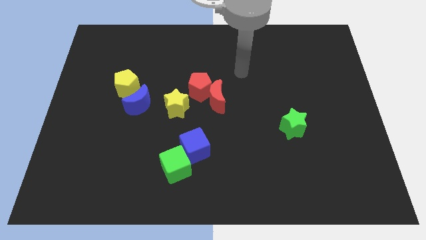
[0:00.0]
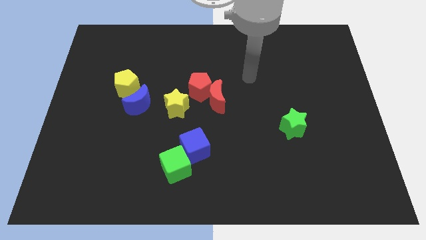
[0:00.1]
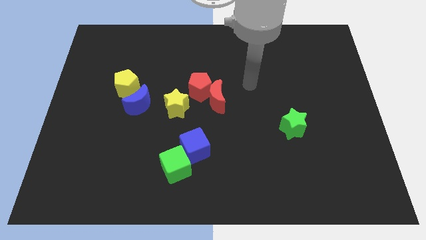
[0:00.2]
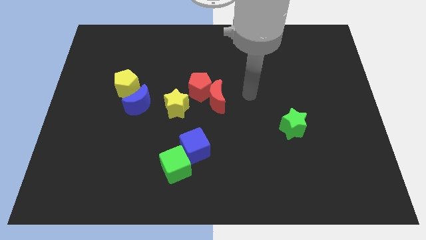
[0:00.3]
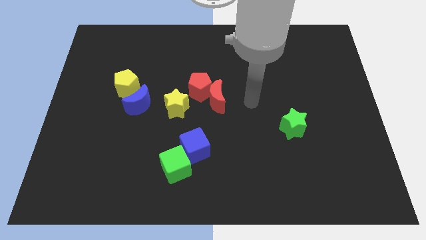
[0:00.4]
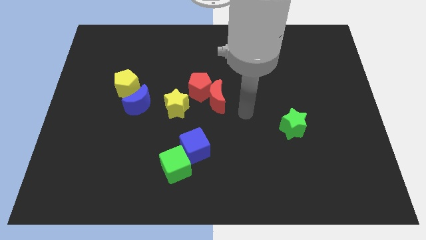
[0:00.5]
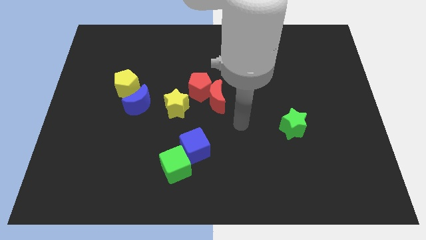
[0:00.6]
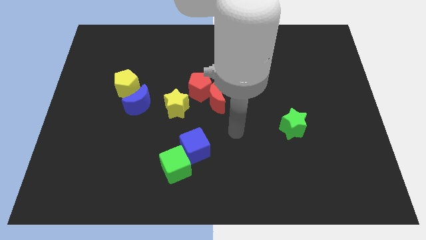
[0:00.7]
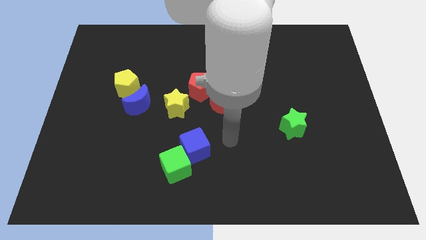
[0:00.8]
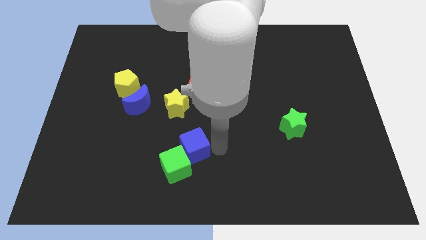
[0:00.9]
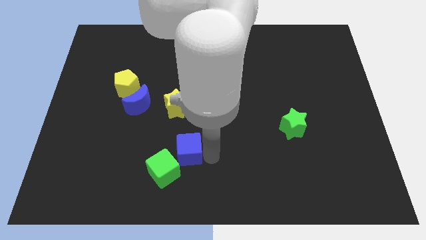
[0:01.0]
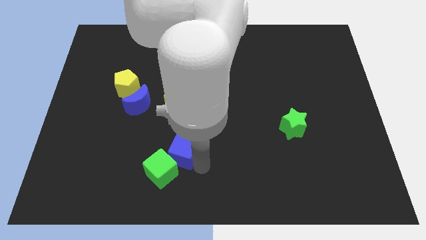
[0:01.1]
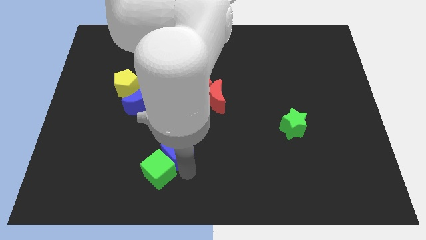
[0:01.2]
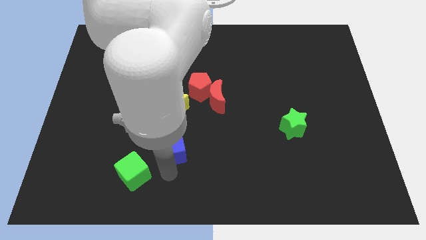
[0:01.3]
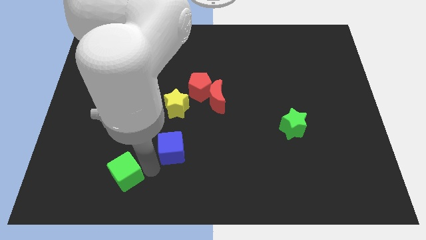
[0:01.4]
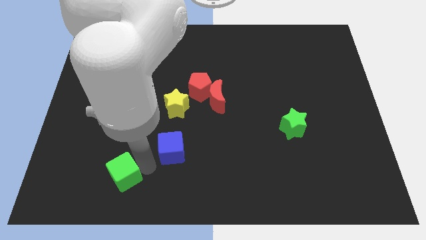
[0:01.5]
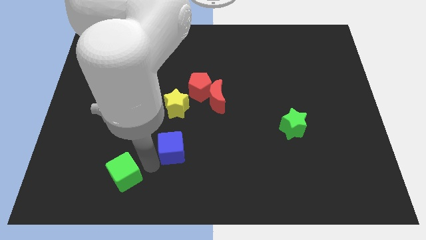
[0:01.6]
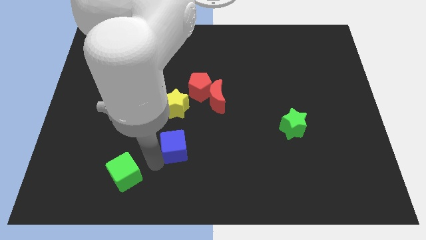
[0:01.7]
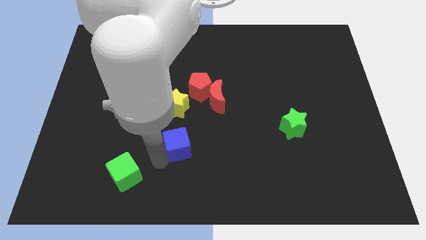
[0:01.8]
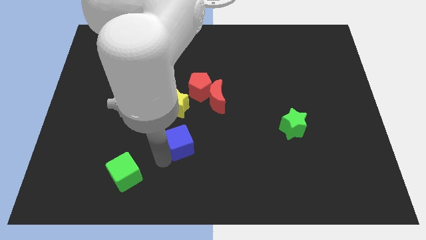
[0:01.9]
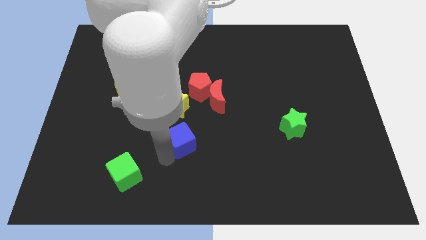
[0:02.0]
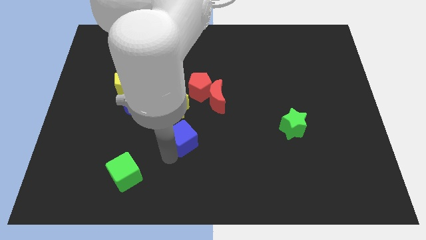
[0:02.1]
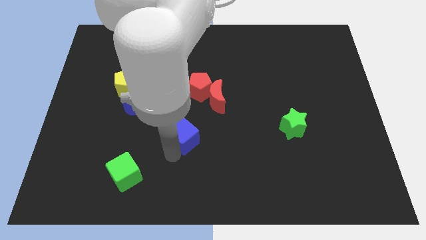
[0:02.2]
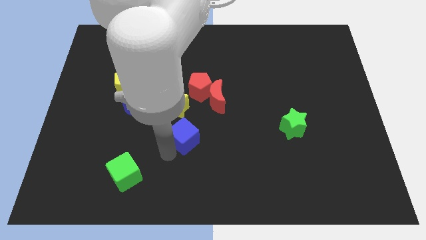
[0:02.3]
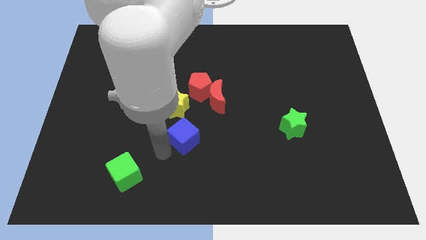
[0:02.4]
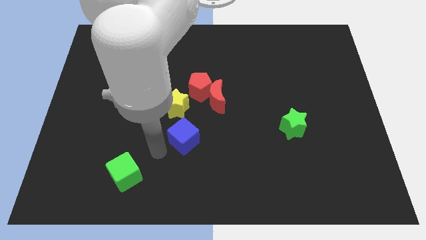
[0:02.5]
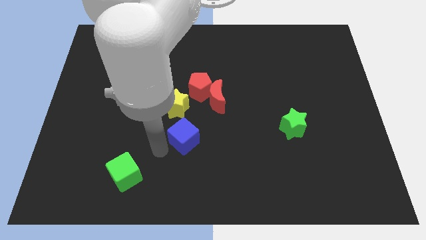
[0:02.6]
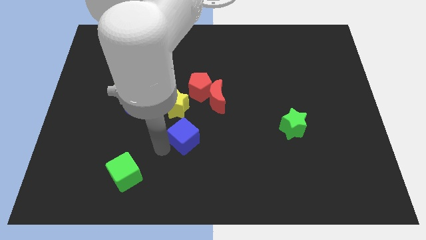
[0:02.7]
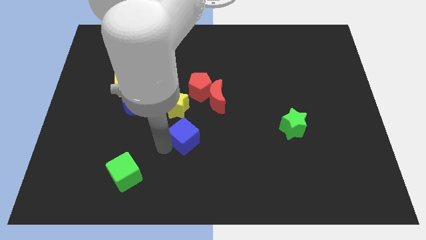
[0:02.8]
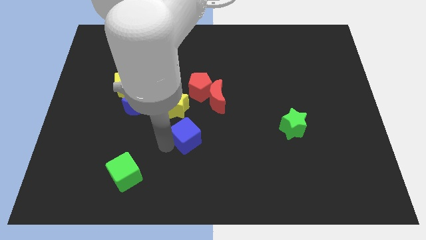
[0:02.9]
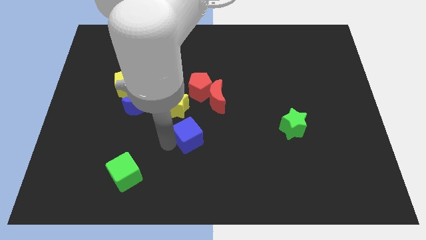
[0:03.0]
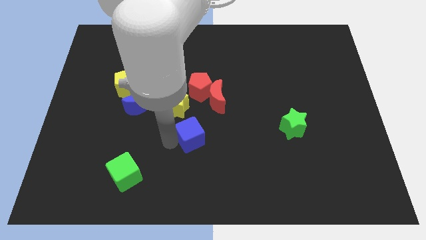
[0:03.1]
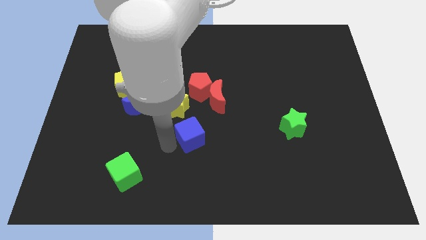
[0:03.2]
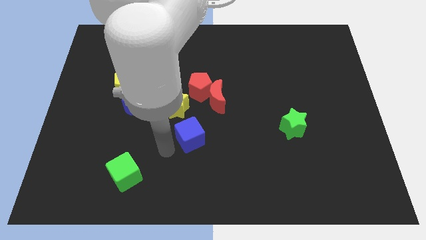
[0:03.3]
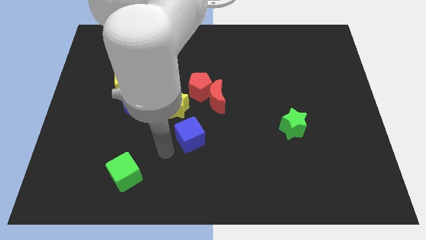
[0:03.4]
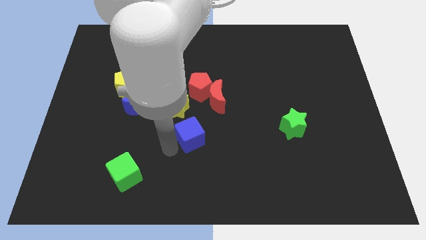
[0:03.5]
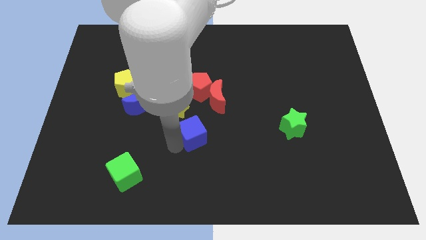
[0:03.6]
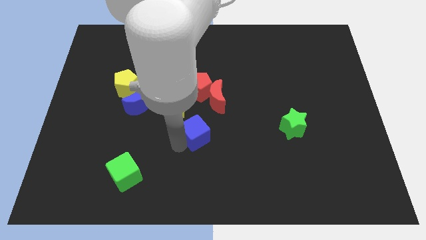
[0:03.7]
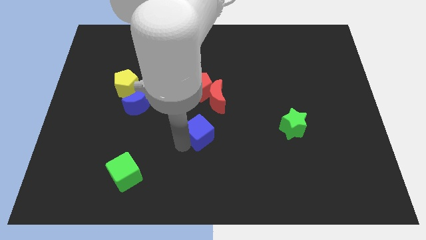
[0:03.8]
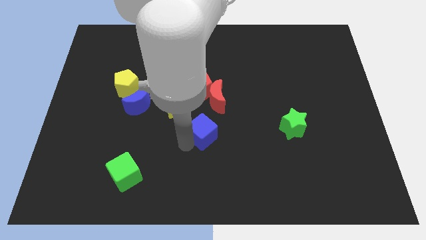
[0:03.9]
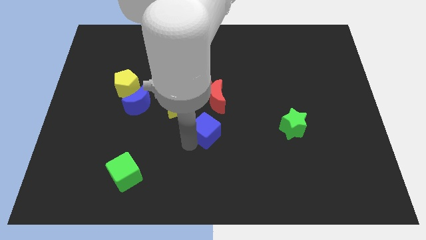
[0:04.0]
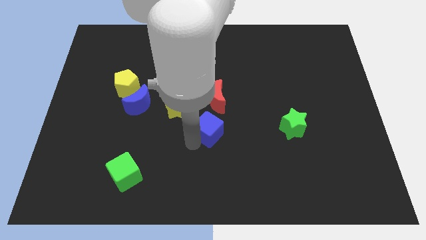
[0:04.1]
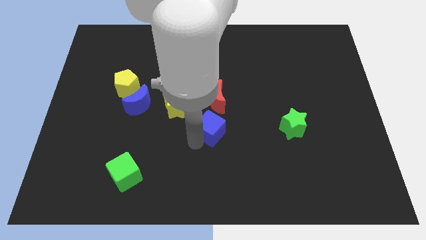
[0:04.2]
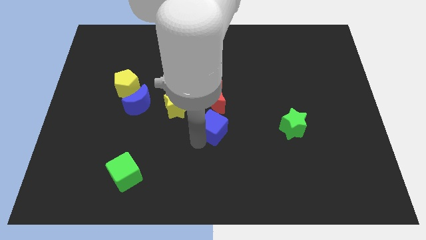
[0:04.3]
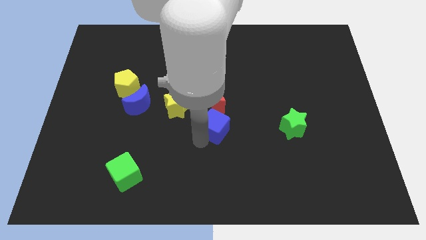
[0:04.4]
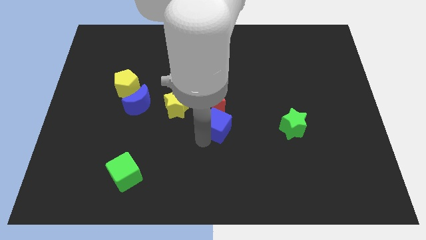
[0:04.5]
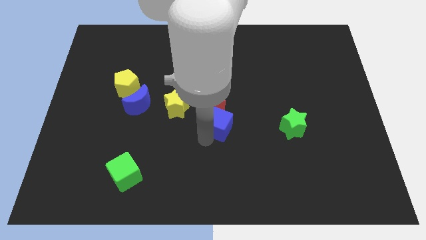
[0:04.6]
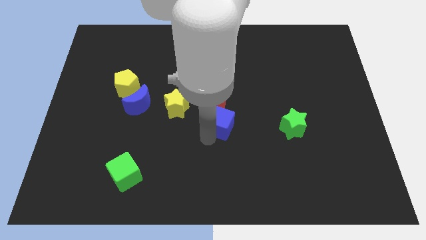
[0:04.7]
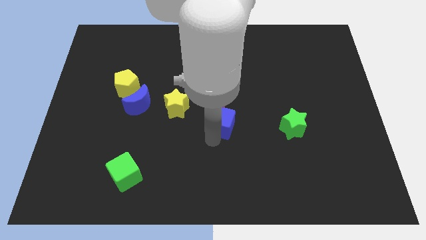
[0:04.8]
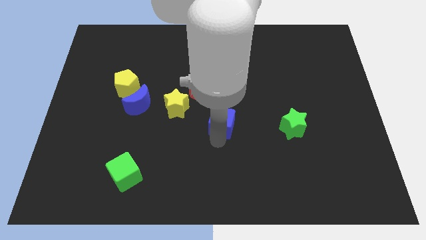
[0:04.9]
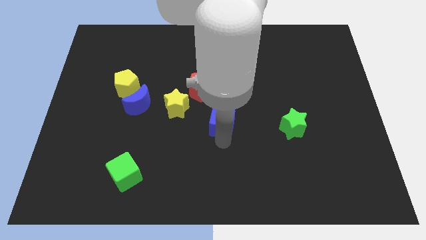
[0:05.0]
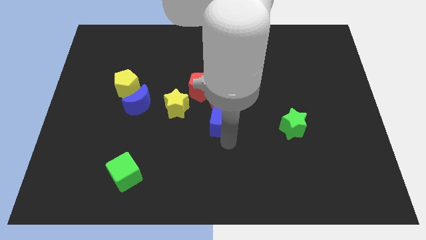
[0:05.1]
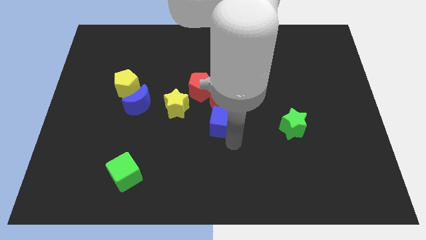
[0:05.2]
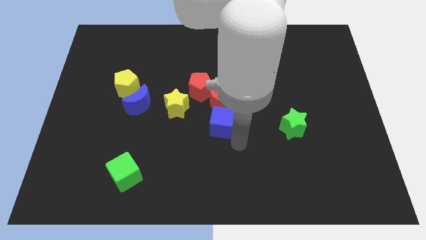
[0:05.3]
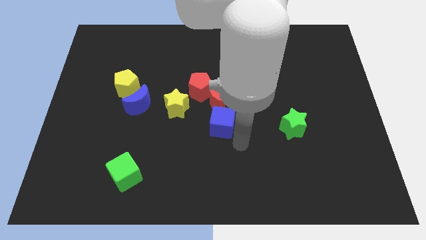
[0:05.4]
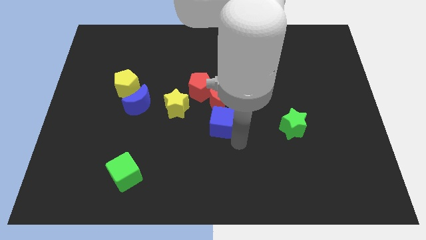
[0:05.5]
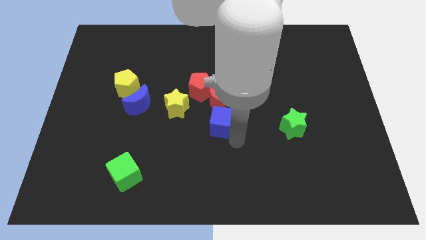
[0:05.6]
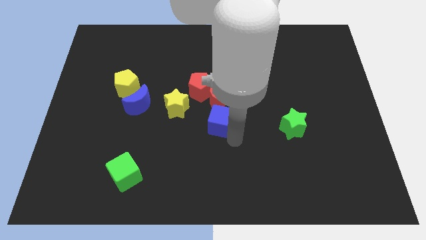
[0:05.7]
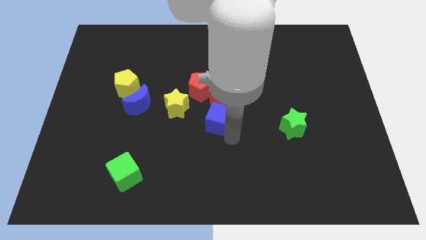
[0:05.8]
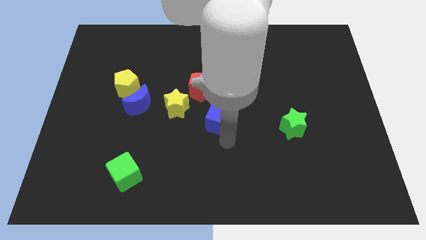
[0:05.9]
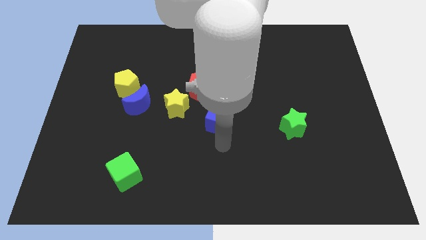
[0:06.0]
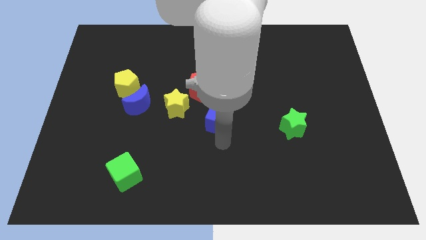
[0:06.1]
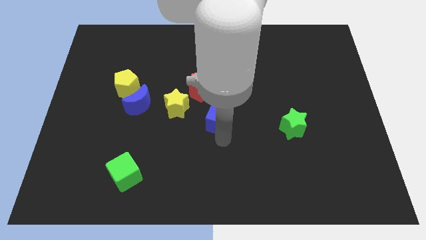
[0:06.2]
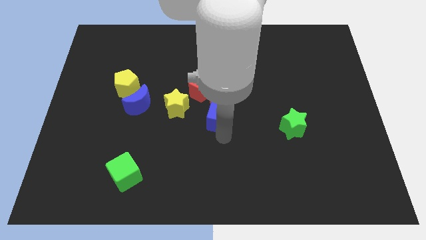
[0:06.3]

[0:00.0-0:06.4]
move the blue cube close to the red moon
